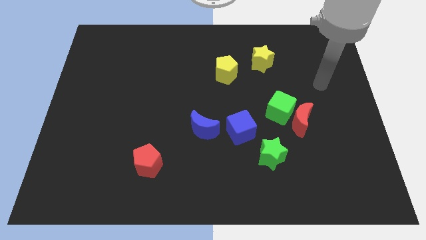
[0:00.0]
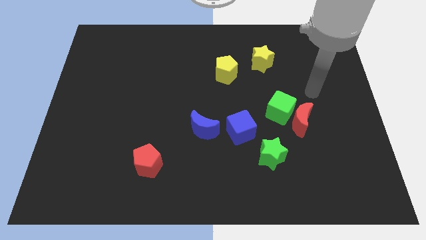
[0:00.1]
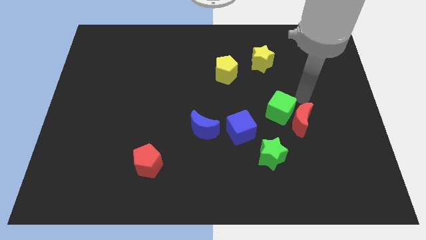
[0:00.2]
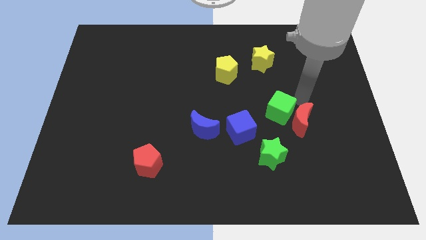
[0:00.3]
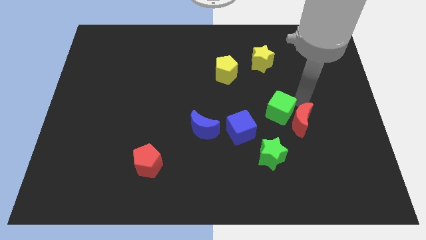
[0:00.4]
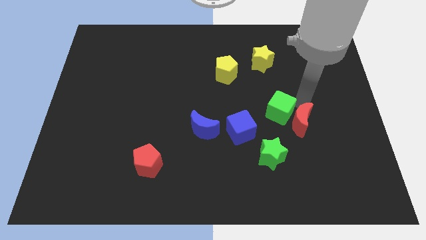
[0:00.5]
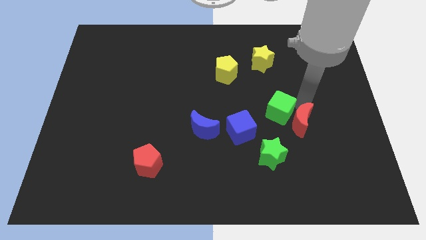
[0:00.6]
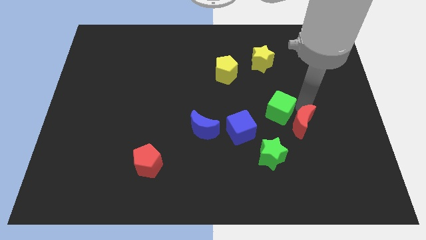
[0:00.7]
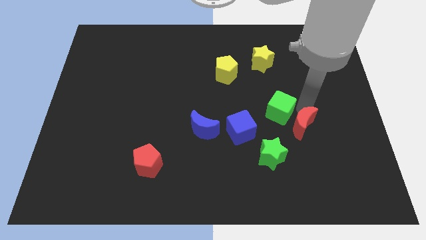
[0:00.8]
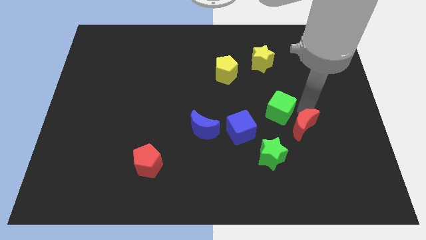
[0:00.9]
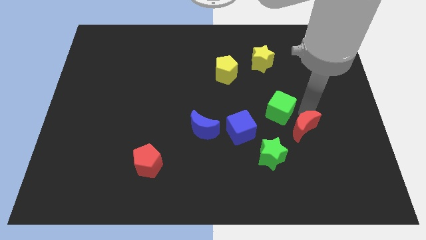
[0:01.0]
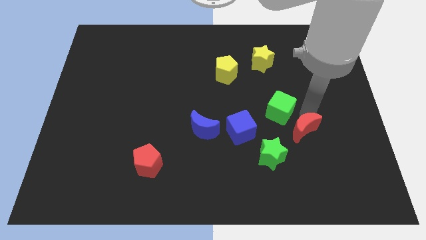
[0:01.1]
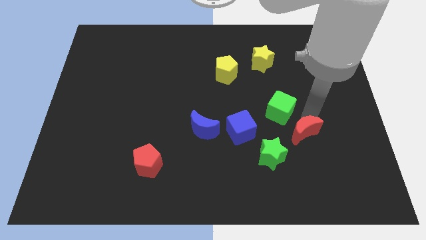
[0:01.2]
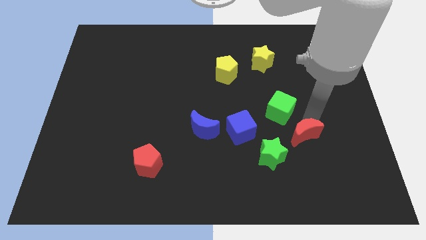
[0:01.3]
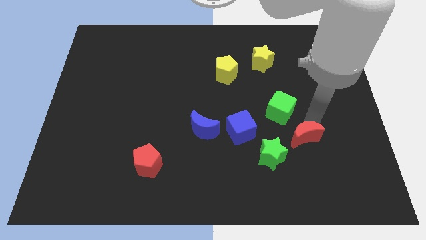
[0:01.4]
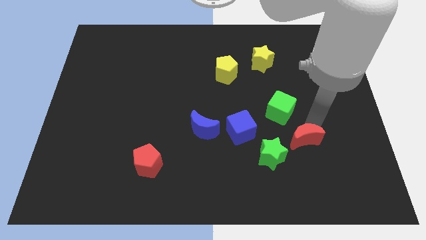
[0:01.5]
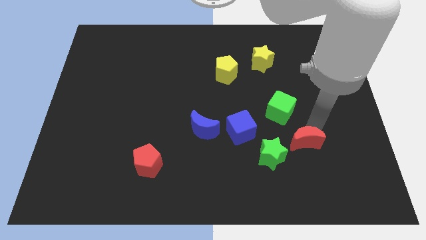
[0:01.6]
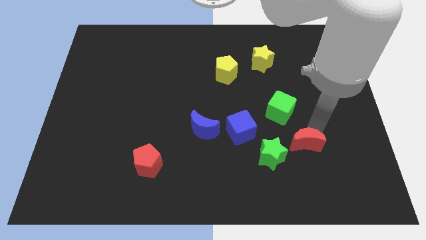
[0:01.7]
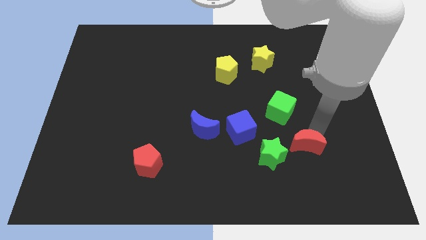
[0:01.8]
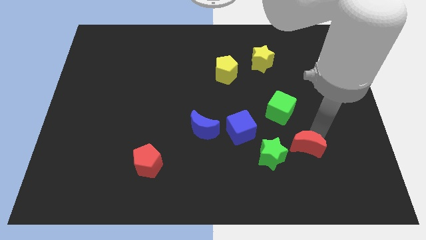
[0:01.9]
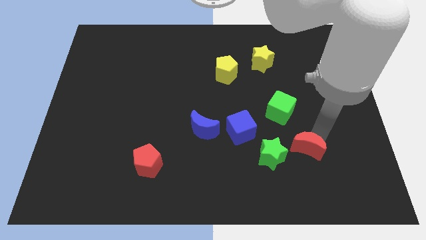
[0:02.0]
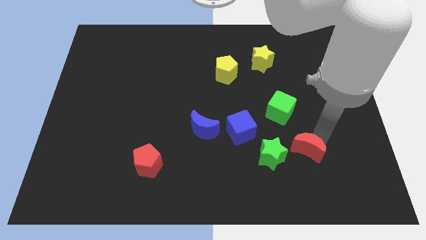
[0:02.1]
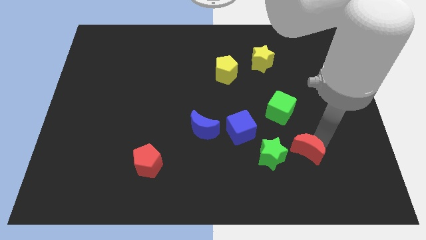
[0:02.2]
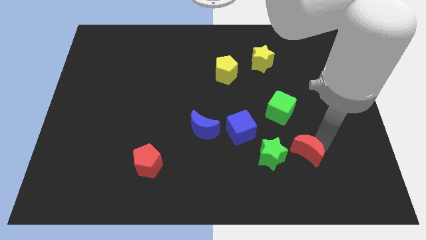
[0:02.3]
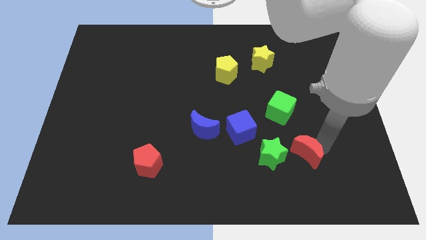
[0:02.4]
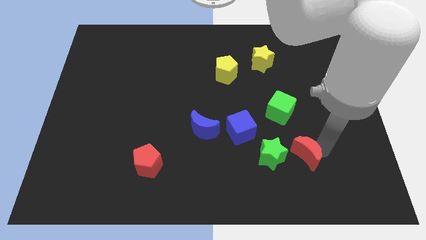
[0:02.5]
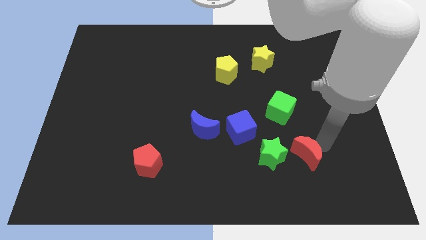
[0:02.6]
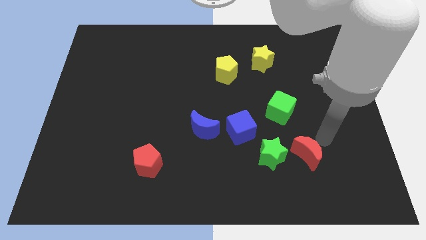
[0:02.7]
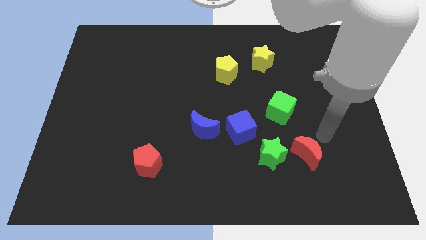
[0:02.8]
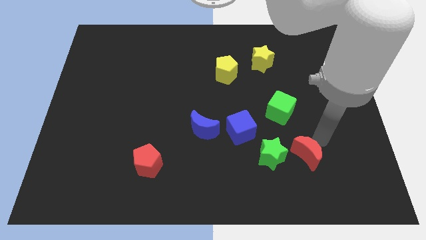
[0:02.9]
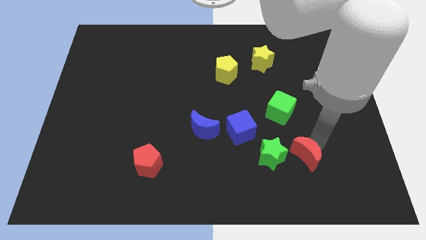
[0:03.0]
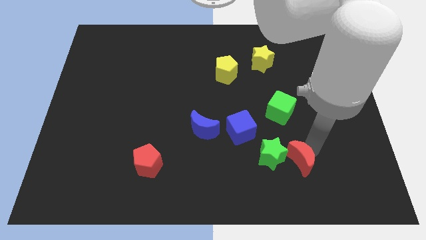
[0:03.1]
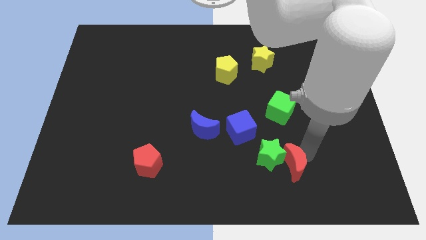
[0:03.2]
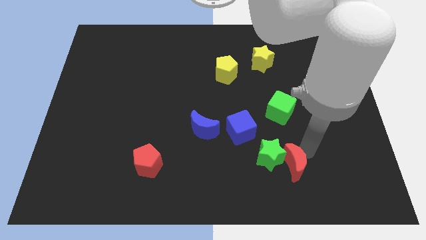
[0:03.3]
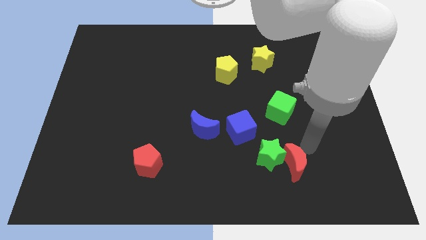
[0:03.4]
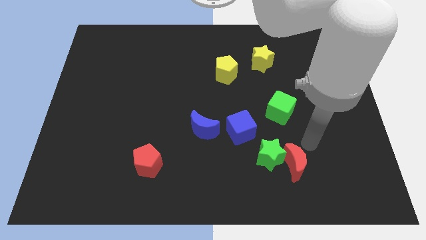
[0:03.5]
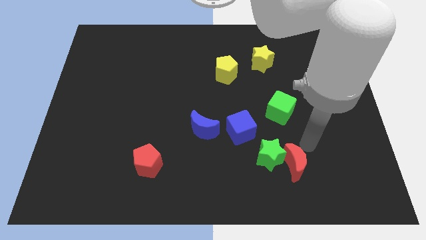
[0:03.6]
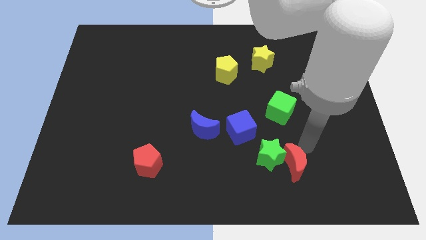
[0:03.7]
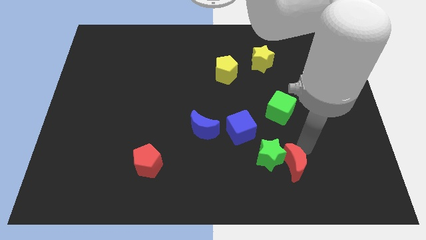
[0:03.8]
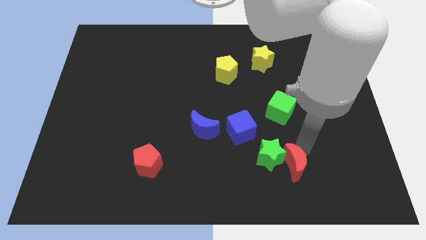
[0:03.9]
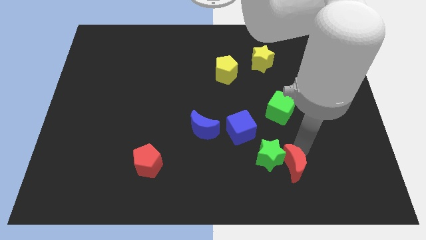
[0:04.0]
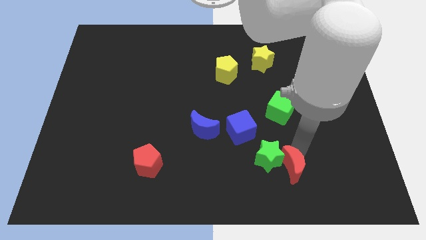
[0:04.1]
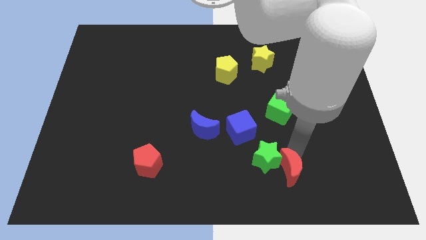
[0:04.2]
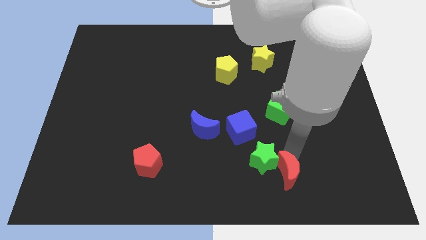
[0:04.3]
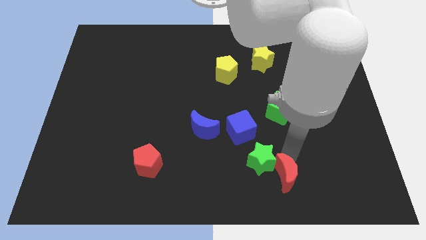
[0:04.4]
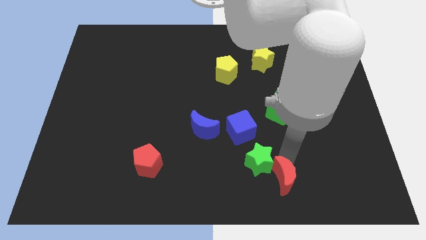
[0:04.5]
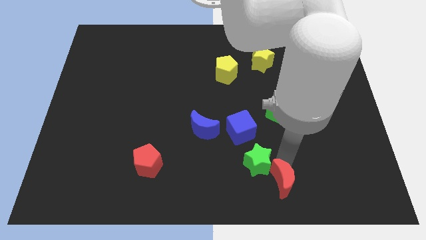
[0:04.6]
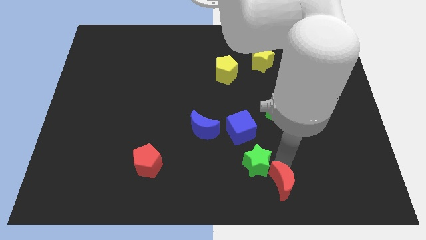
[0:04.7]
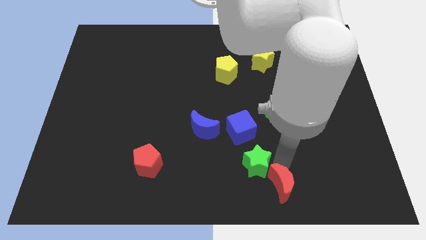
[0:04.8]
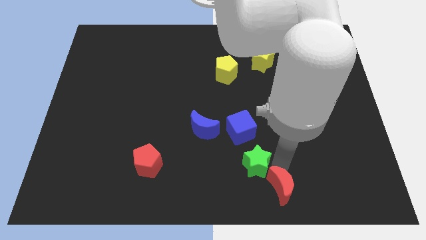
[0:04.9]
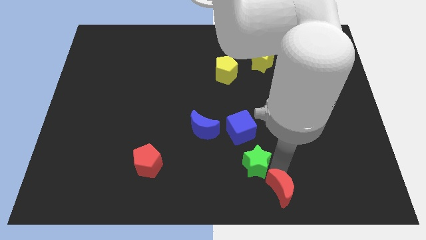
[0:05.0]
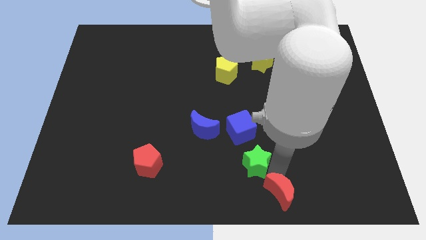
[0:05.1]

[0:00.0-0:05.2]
move the red moon to the bottom

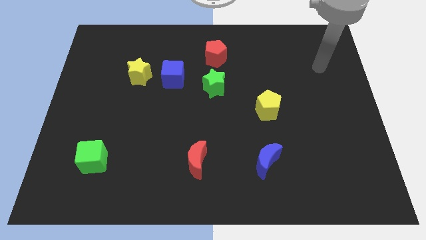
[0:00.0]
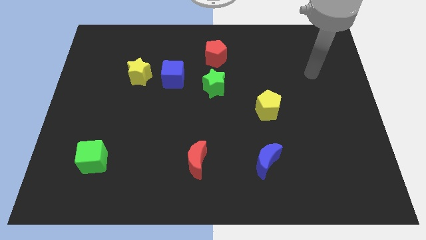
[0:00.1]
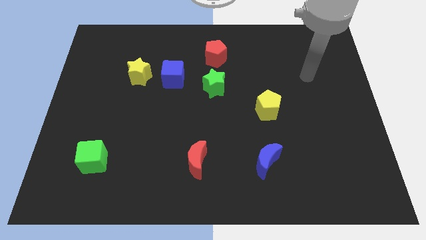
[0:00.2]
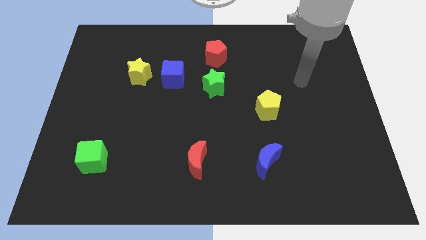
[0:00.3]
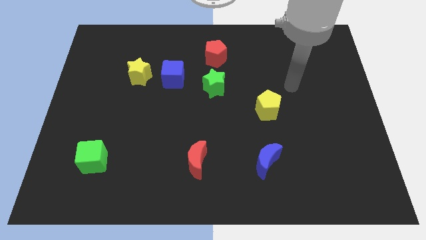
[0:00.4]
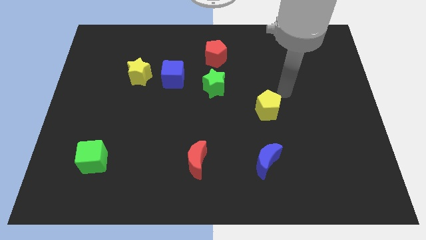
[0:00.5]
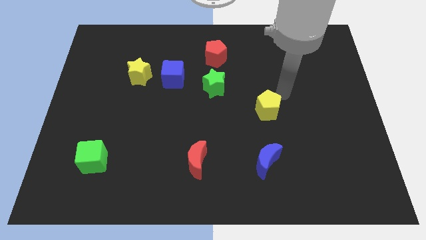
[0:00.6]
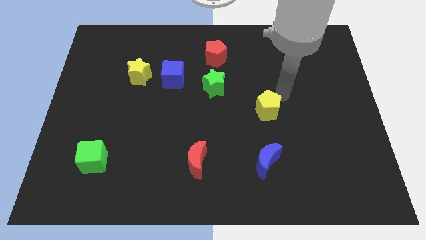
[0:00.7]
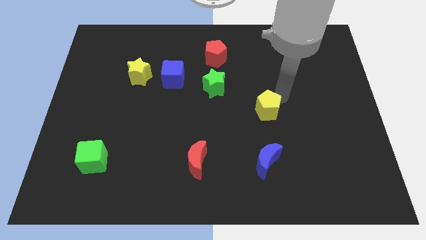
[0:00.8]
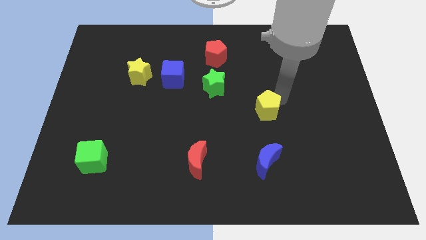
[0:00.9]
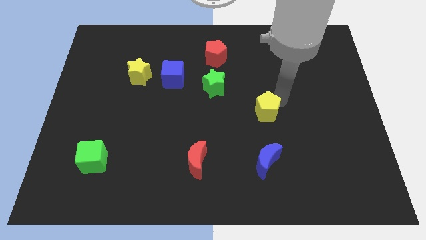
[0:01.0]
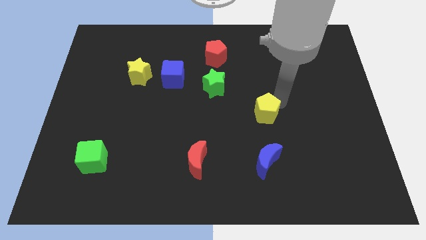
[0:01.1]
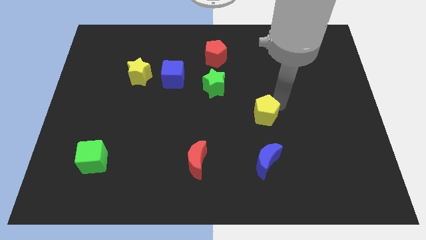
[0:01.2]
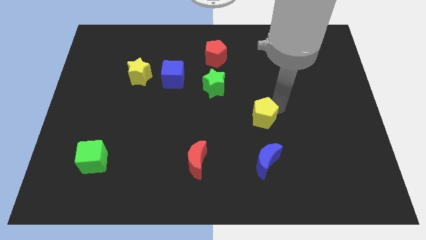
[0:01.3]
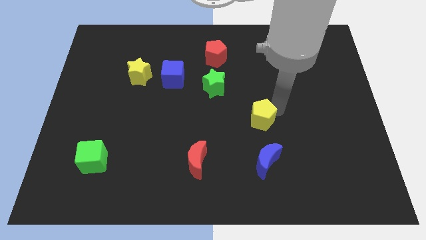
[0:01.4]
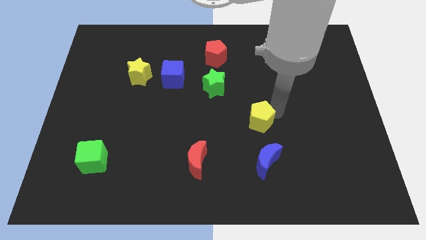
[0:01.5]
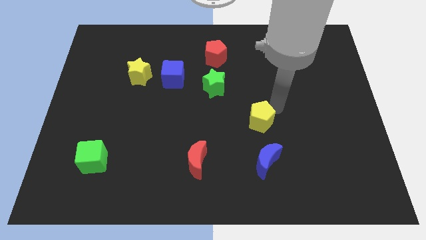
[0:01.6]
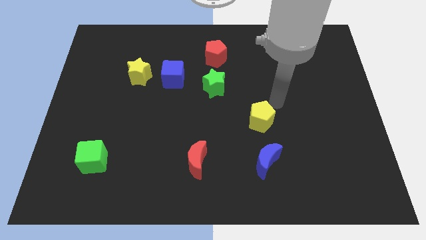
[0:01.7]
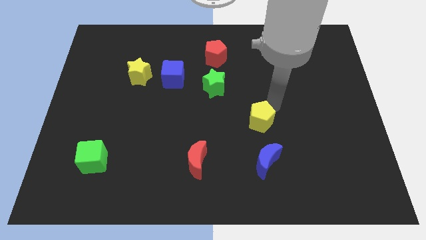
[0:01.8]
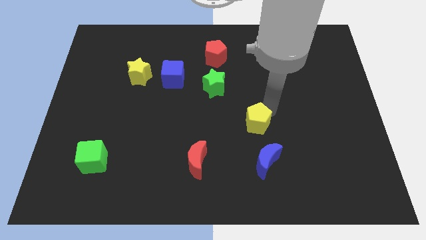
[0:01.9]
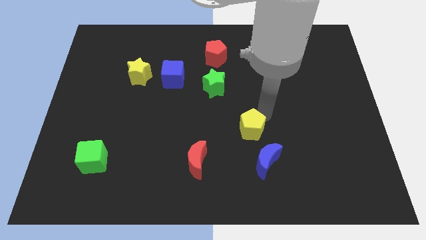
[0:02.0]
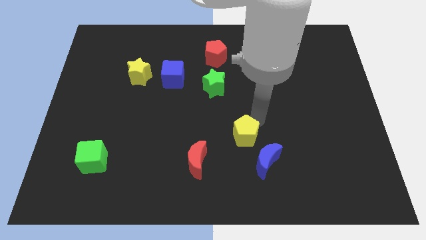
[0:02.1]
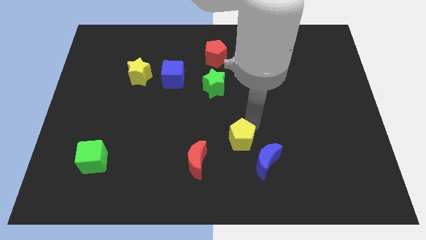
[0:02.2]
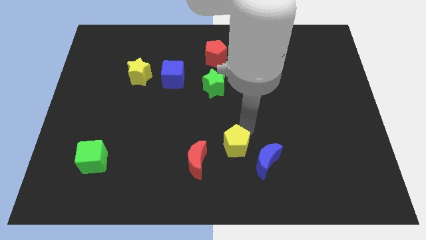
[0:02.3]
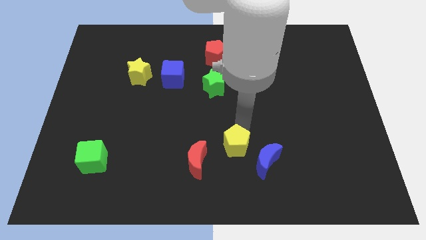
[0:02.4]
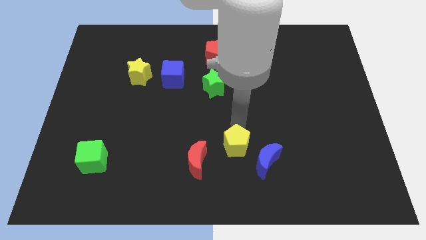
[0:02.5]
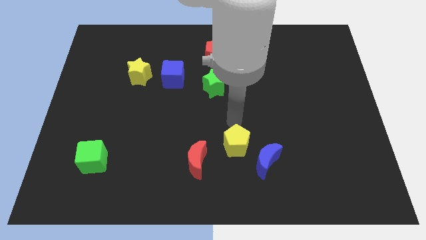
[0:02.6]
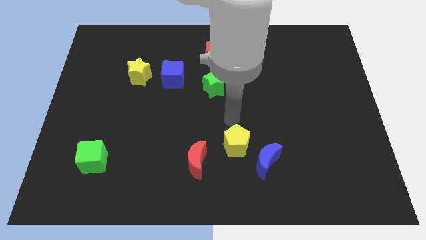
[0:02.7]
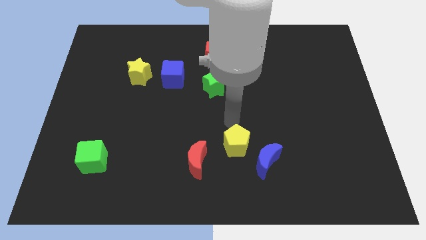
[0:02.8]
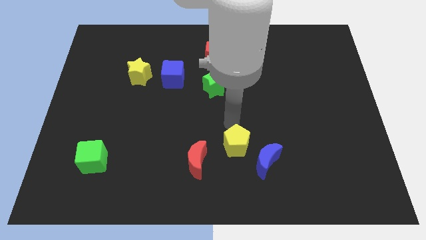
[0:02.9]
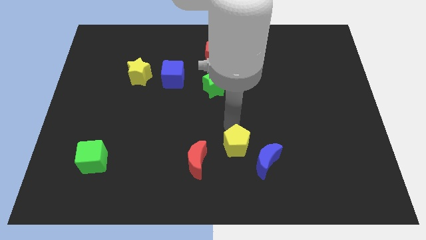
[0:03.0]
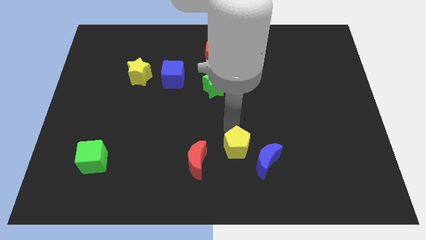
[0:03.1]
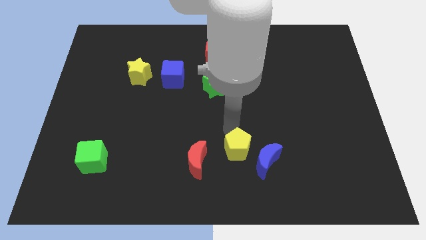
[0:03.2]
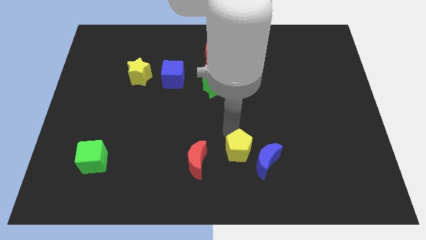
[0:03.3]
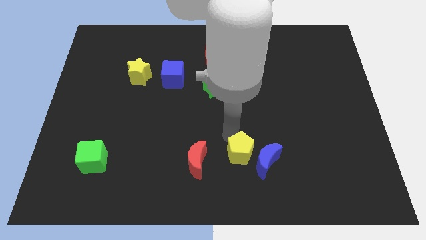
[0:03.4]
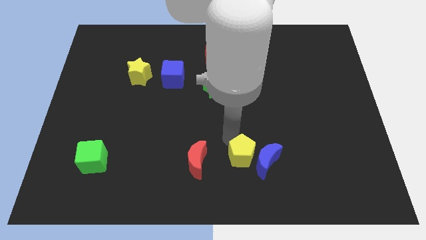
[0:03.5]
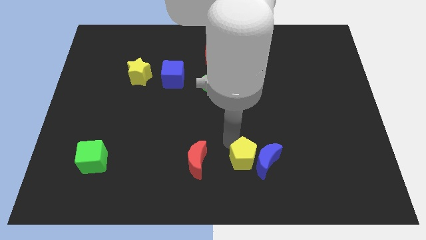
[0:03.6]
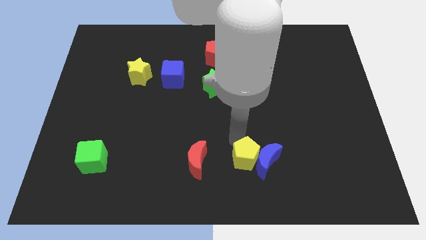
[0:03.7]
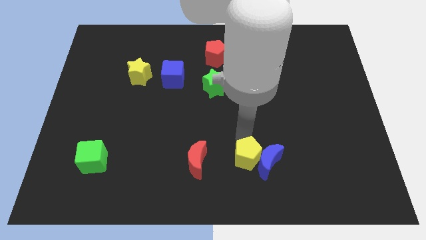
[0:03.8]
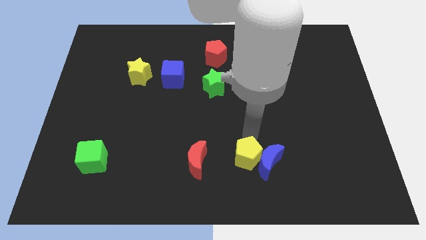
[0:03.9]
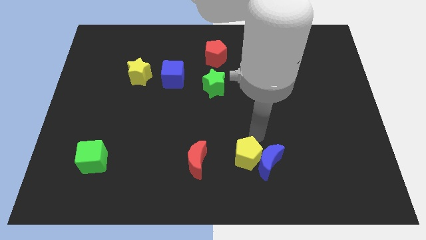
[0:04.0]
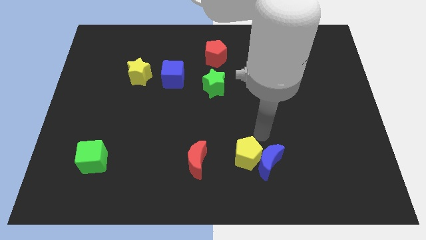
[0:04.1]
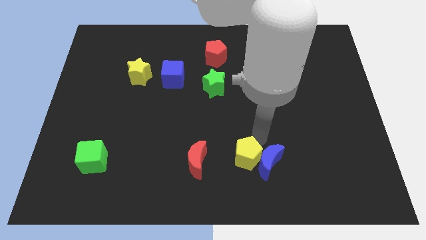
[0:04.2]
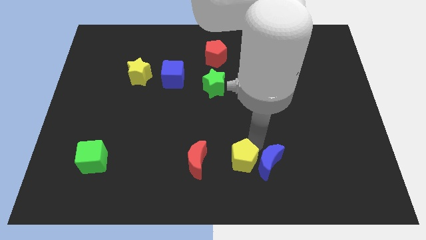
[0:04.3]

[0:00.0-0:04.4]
move the yellow pentagon to the bottom side
